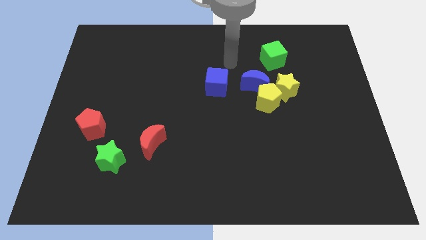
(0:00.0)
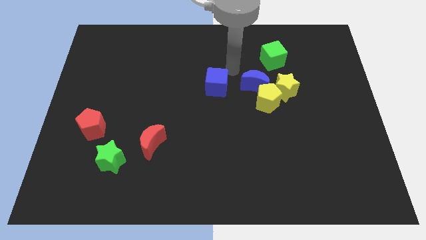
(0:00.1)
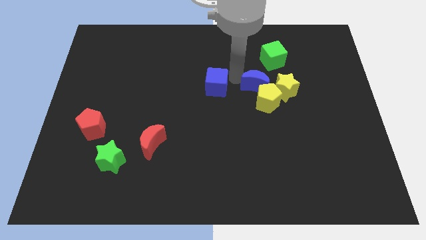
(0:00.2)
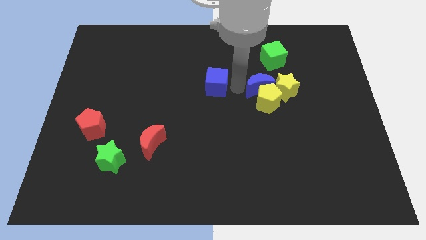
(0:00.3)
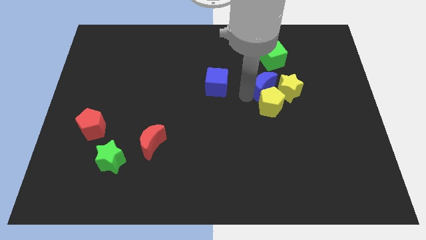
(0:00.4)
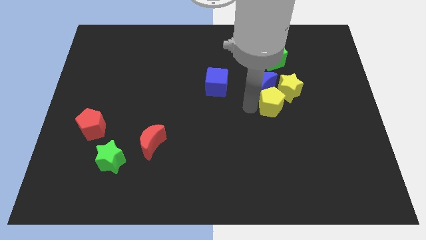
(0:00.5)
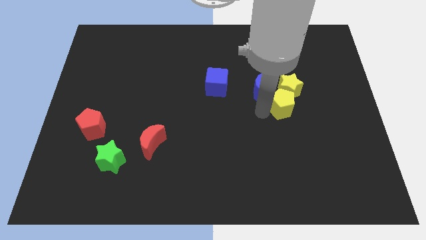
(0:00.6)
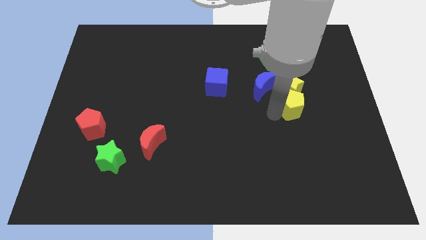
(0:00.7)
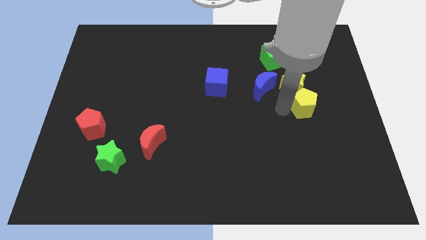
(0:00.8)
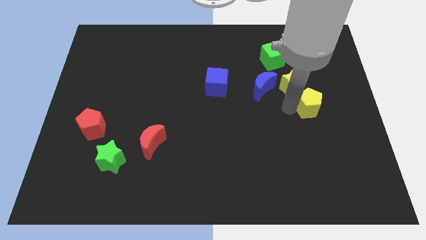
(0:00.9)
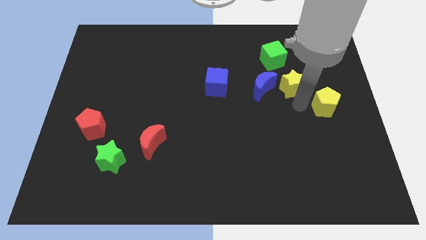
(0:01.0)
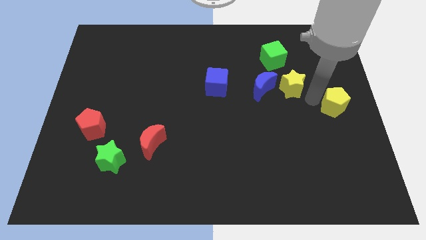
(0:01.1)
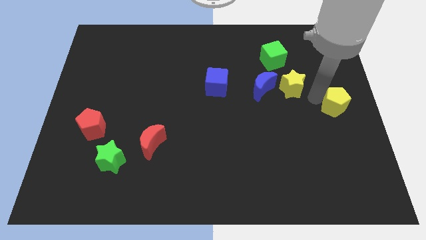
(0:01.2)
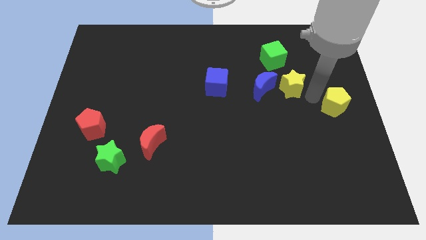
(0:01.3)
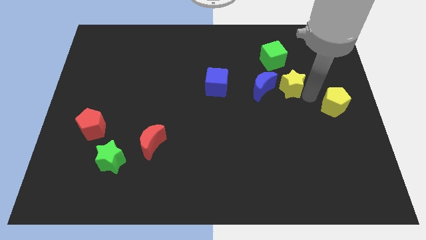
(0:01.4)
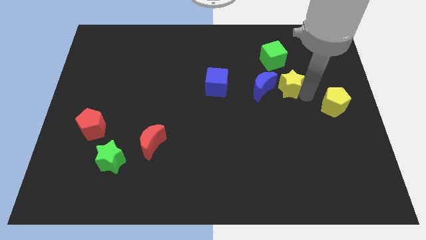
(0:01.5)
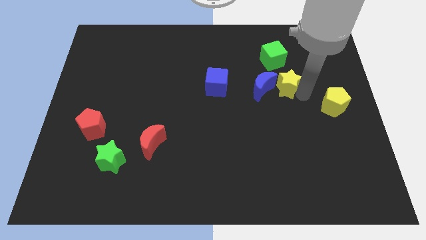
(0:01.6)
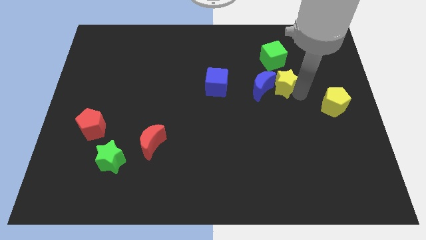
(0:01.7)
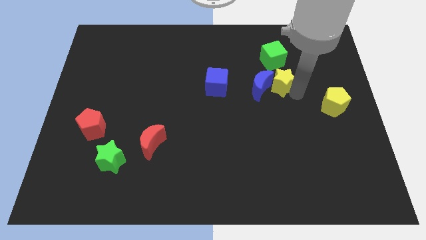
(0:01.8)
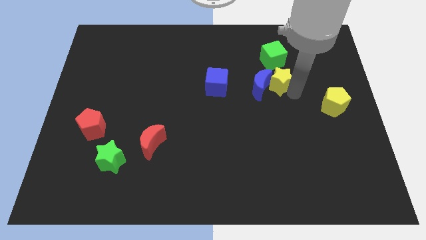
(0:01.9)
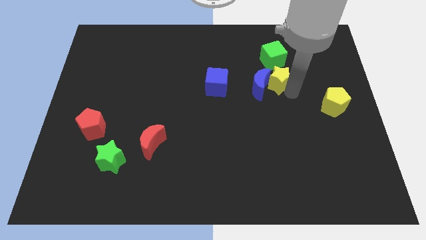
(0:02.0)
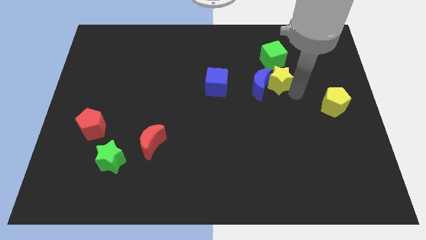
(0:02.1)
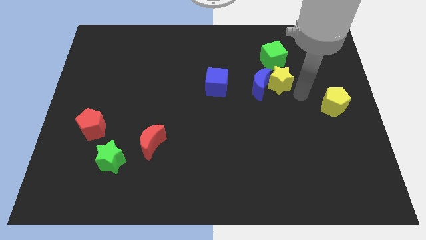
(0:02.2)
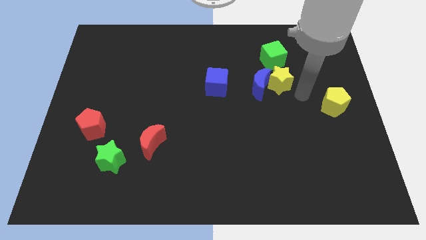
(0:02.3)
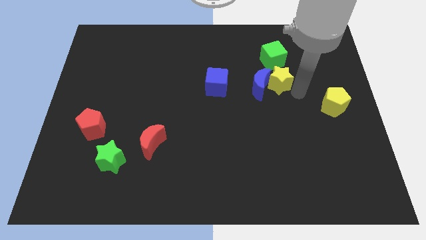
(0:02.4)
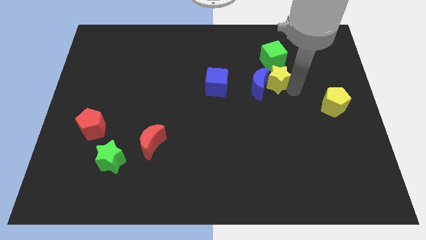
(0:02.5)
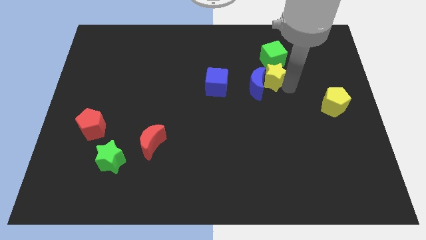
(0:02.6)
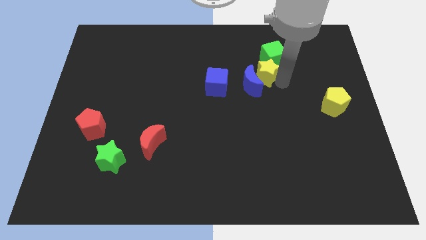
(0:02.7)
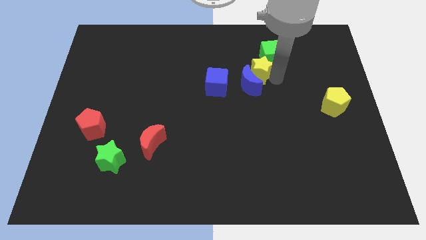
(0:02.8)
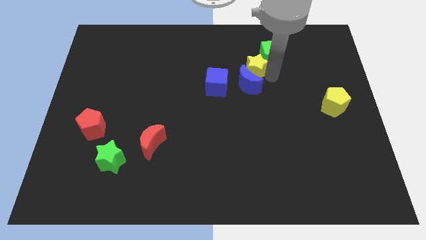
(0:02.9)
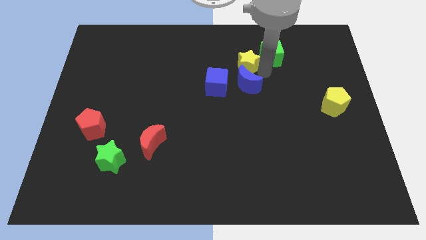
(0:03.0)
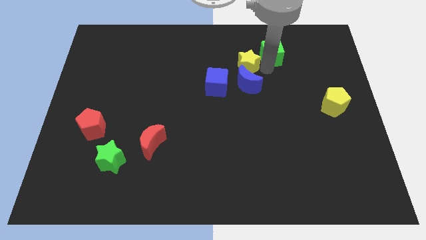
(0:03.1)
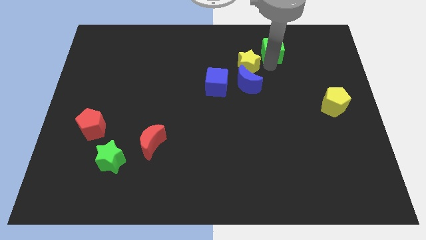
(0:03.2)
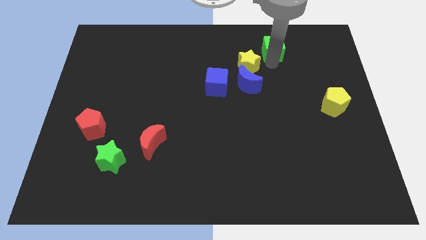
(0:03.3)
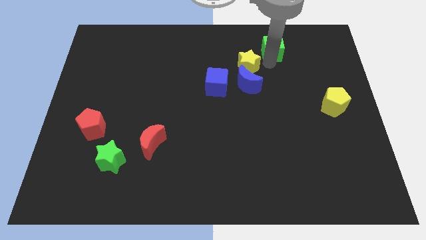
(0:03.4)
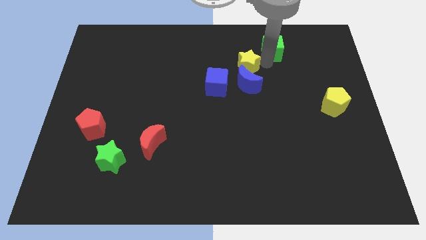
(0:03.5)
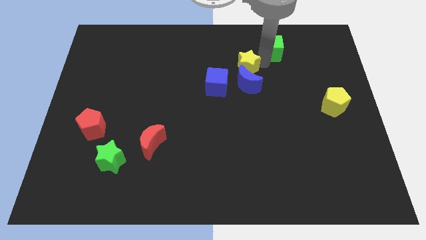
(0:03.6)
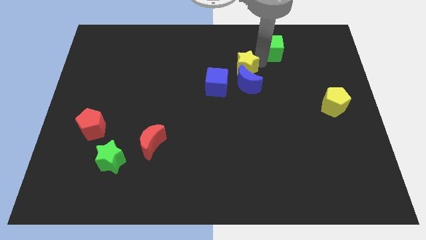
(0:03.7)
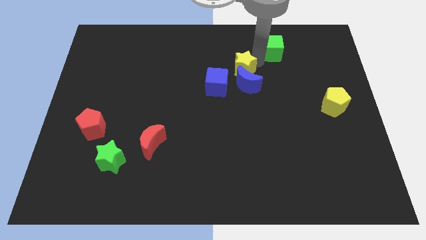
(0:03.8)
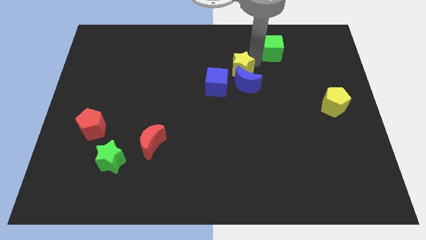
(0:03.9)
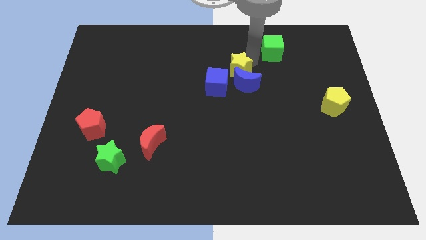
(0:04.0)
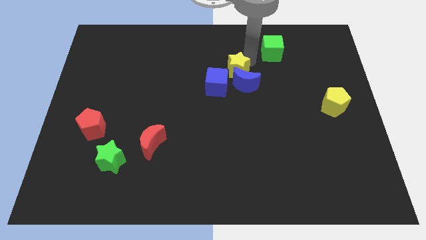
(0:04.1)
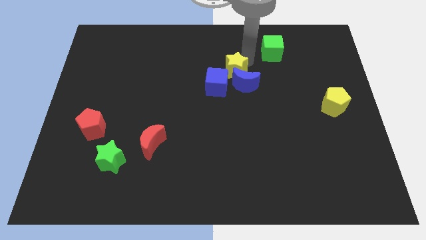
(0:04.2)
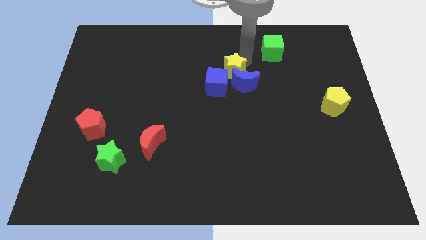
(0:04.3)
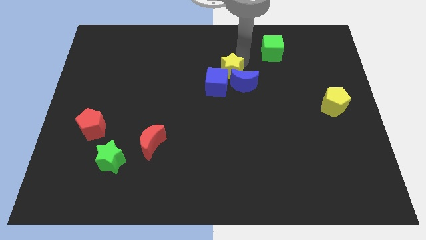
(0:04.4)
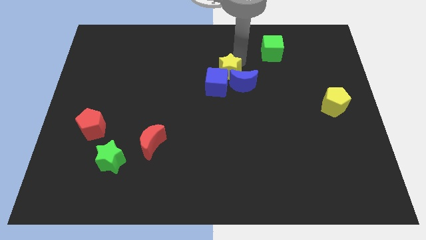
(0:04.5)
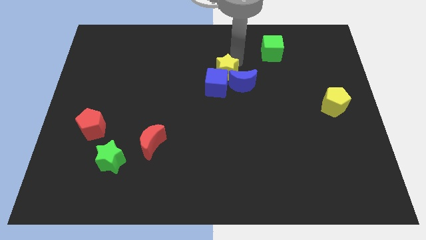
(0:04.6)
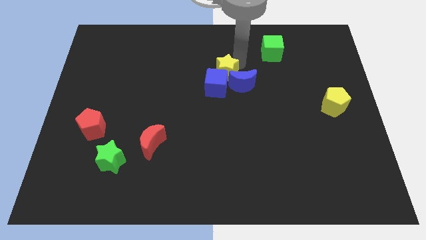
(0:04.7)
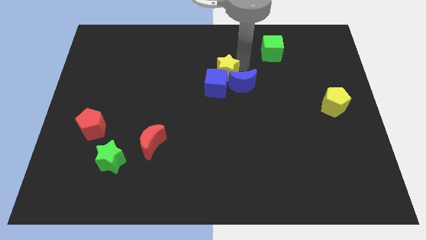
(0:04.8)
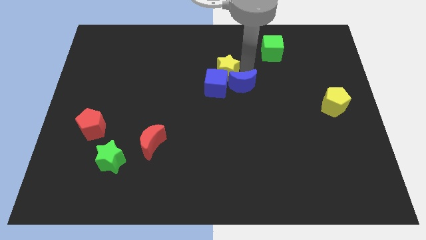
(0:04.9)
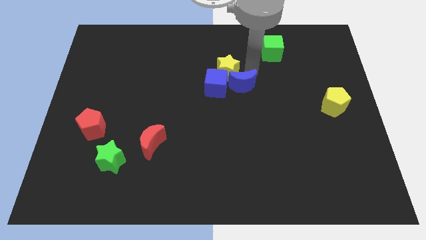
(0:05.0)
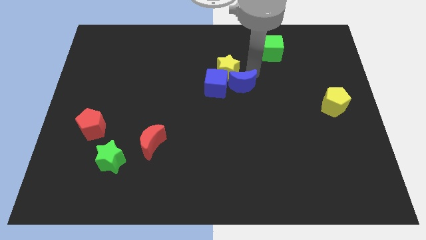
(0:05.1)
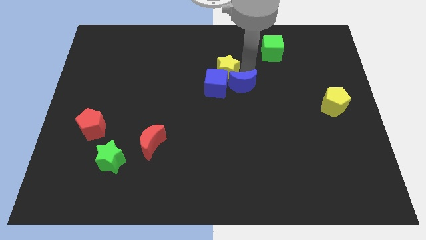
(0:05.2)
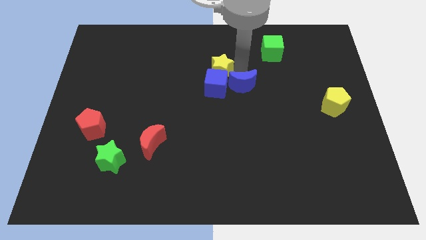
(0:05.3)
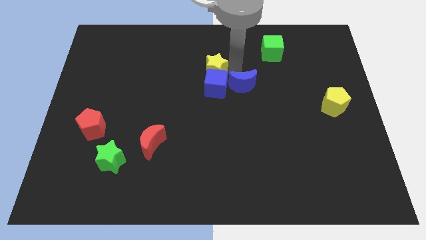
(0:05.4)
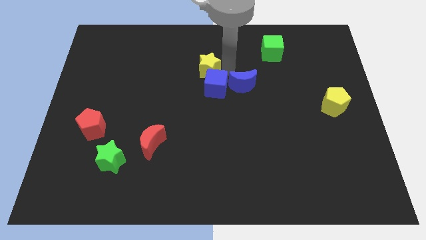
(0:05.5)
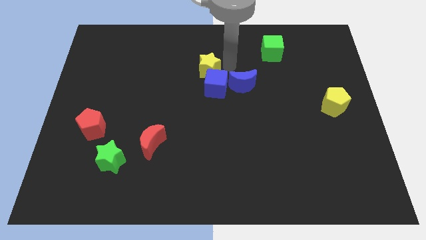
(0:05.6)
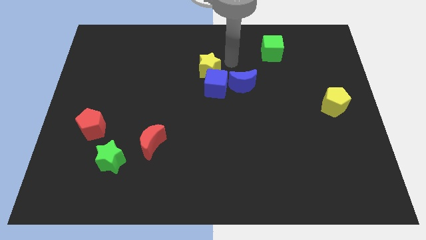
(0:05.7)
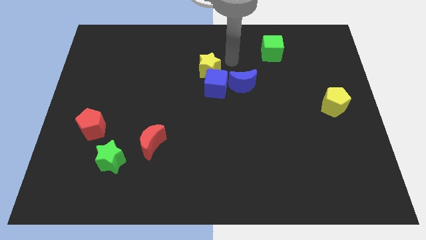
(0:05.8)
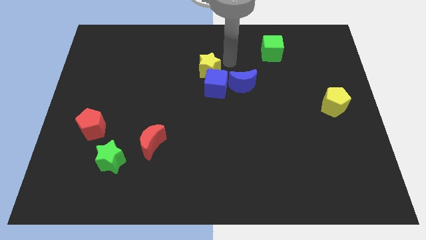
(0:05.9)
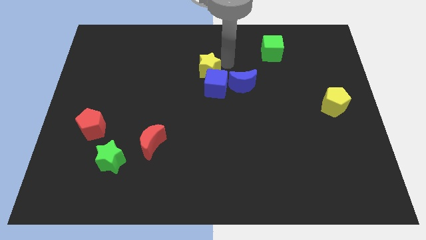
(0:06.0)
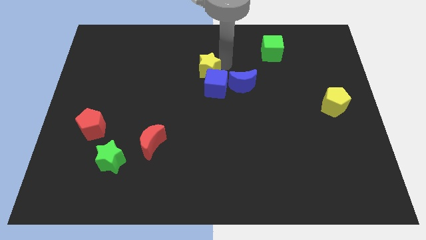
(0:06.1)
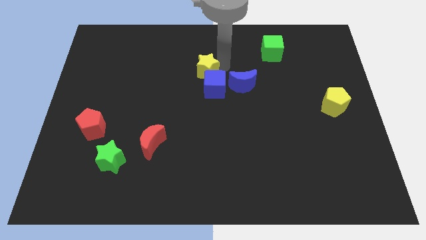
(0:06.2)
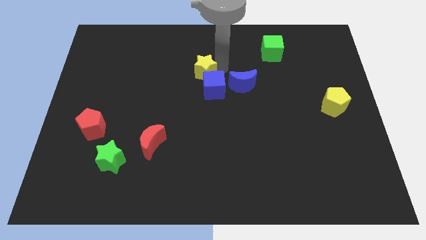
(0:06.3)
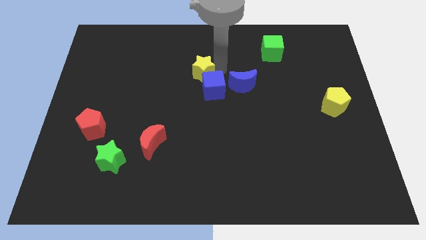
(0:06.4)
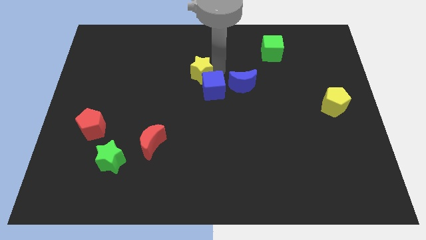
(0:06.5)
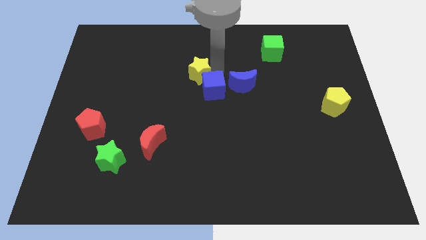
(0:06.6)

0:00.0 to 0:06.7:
push the yellow star left

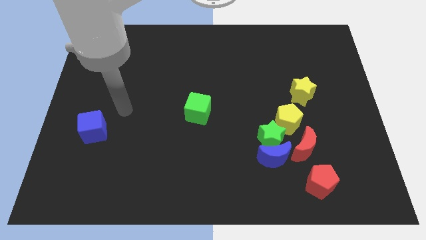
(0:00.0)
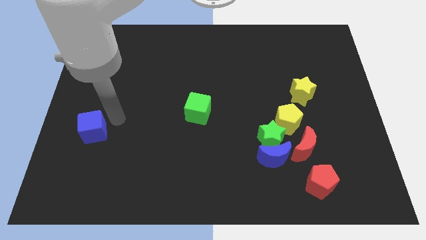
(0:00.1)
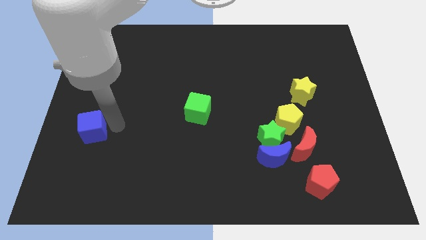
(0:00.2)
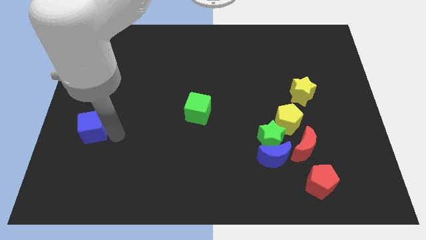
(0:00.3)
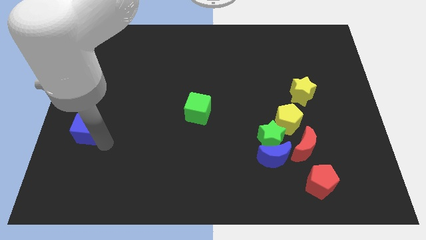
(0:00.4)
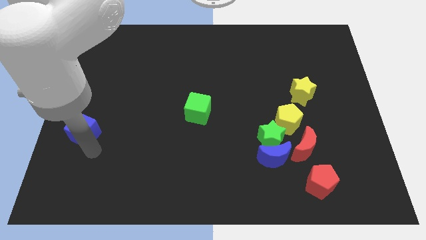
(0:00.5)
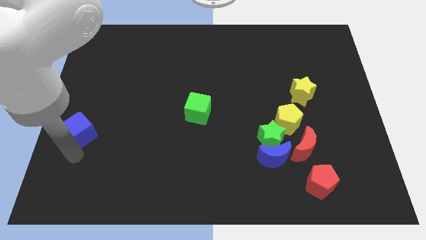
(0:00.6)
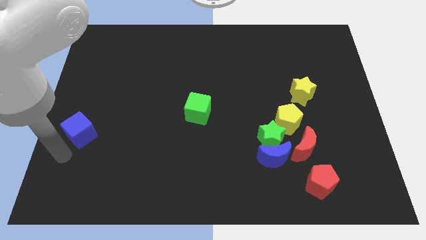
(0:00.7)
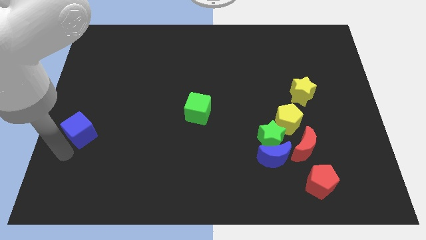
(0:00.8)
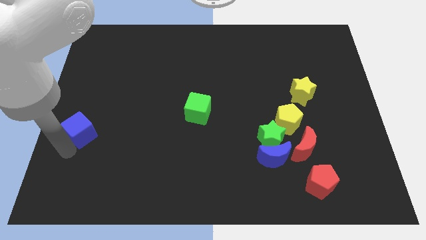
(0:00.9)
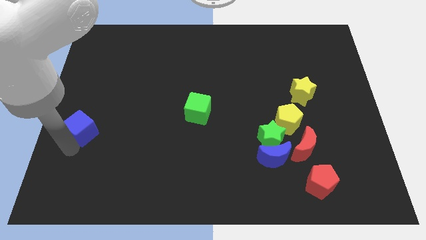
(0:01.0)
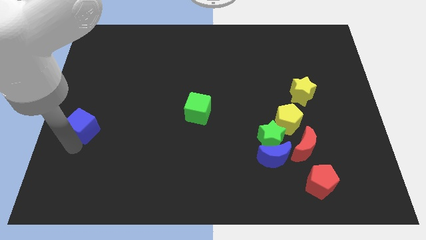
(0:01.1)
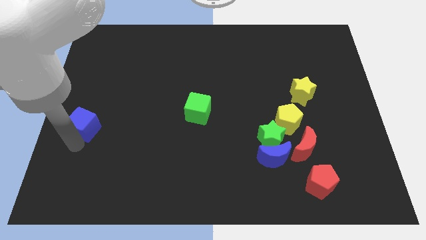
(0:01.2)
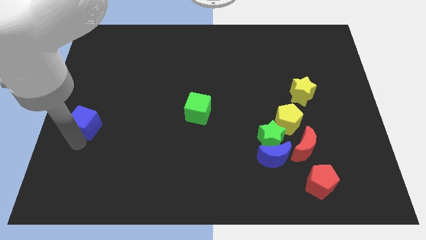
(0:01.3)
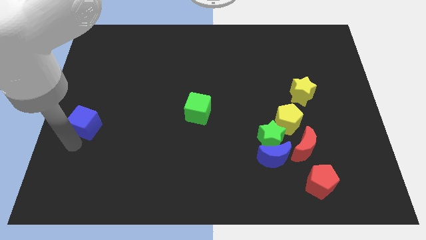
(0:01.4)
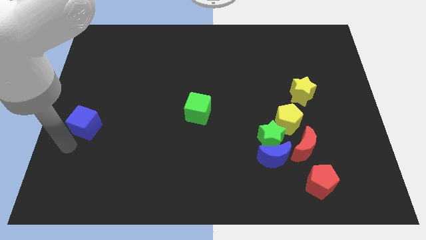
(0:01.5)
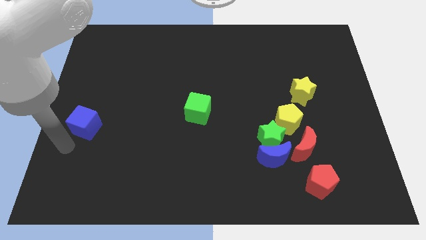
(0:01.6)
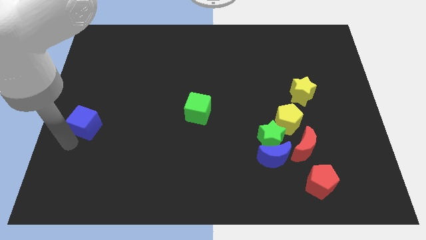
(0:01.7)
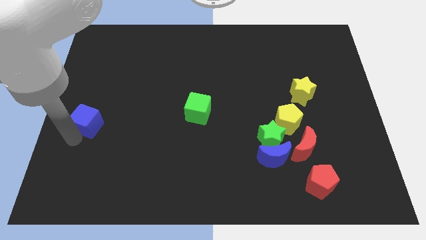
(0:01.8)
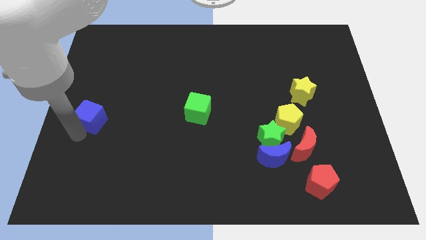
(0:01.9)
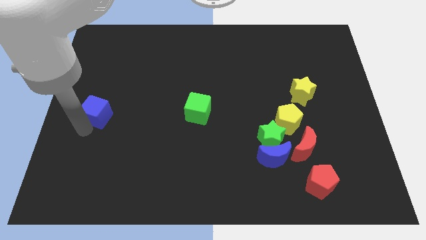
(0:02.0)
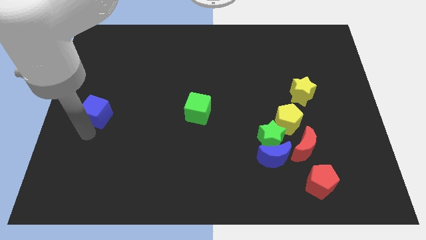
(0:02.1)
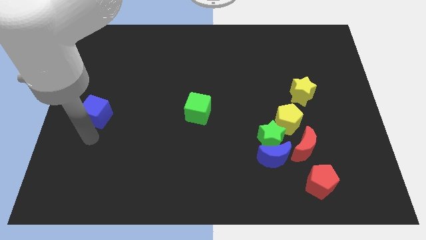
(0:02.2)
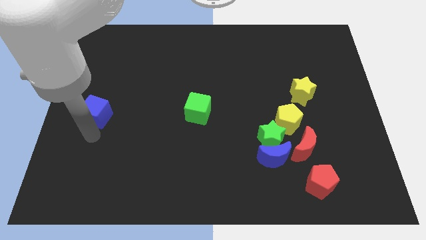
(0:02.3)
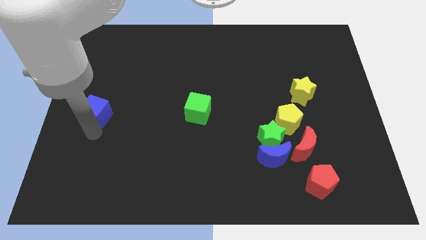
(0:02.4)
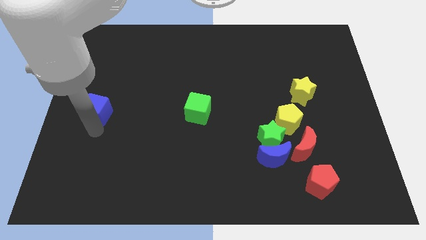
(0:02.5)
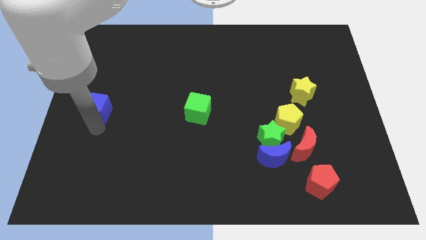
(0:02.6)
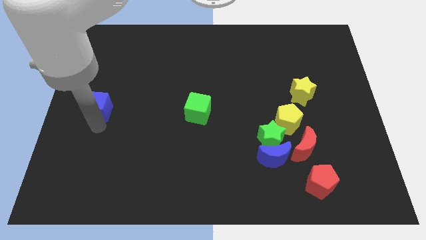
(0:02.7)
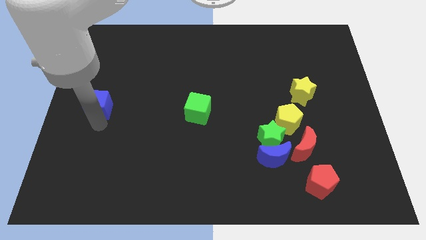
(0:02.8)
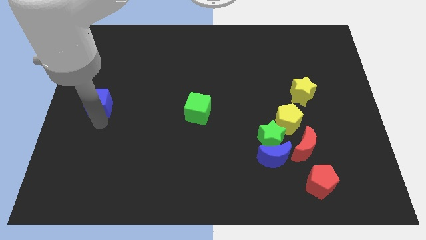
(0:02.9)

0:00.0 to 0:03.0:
push the blue cube somewhat upwards
